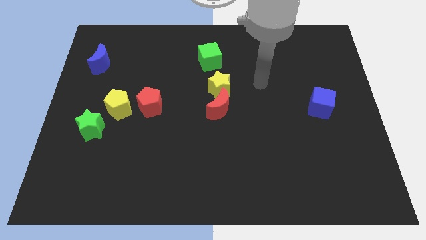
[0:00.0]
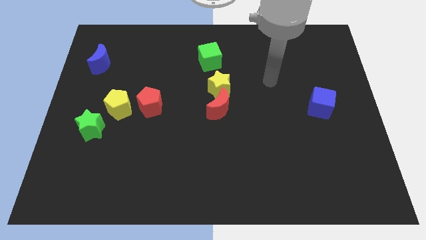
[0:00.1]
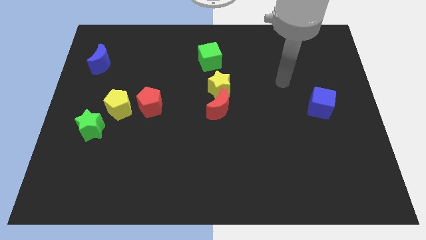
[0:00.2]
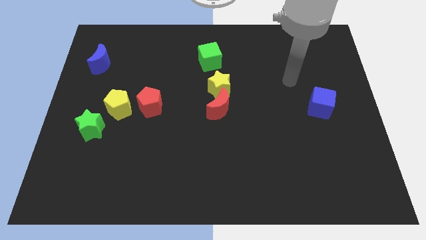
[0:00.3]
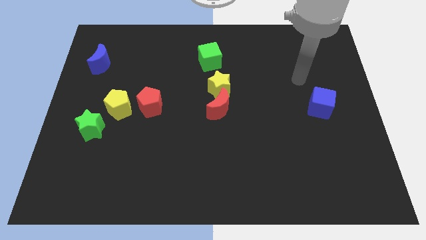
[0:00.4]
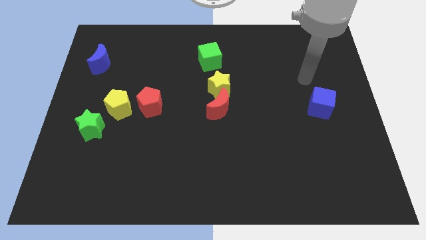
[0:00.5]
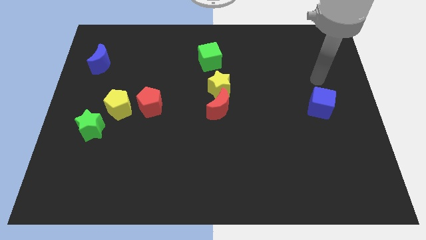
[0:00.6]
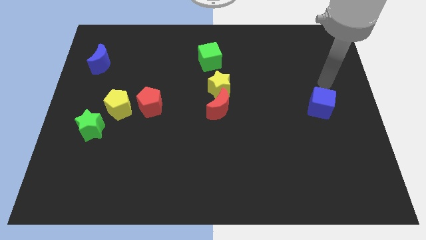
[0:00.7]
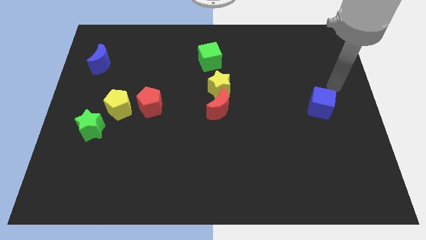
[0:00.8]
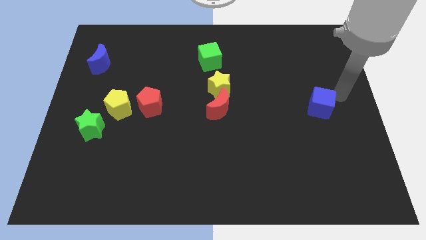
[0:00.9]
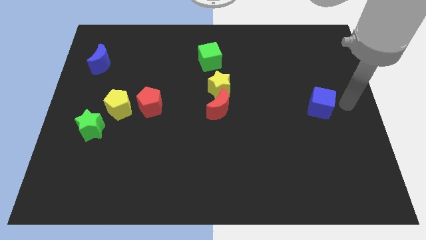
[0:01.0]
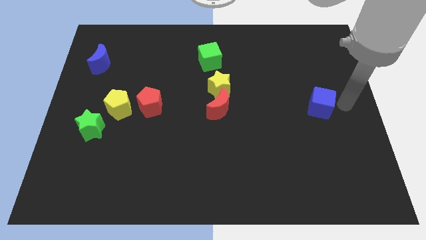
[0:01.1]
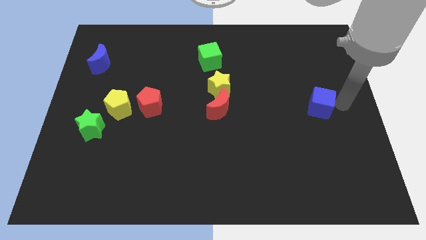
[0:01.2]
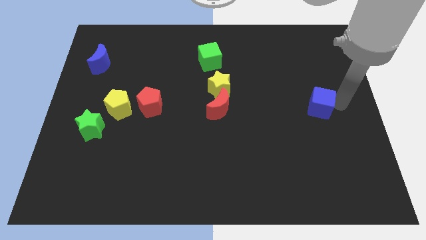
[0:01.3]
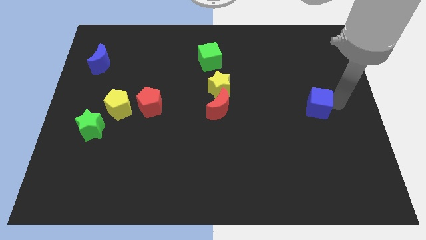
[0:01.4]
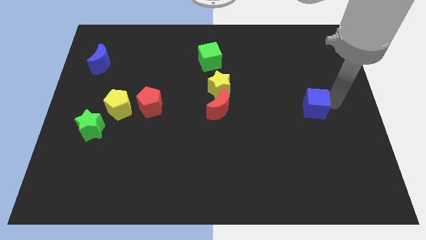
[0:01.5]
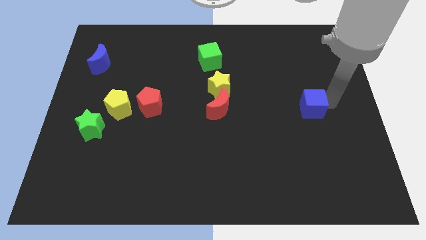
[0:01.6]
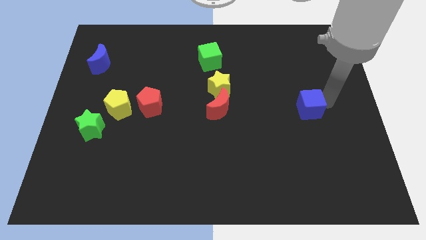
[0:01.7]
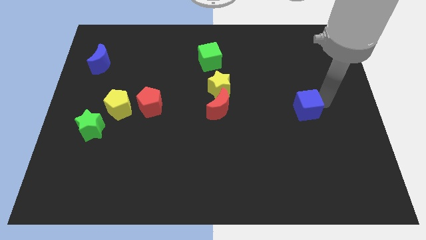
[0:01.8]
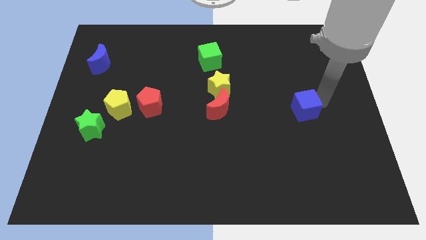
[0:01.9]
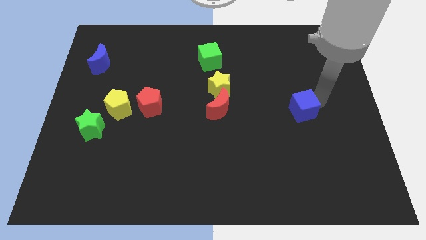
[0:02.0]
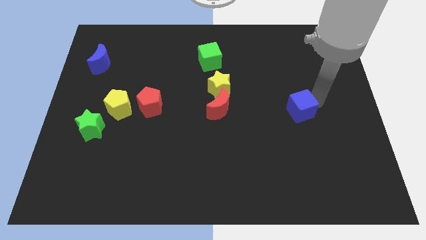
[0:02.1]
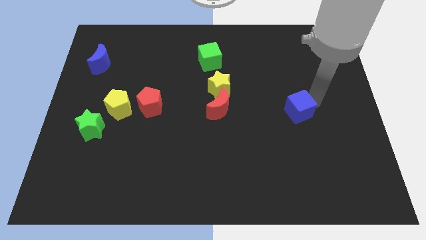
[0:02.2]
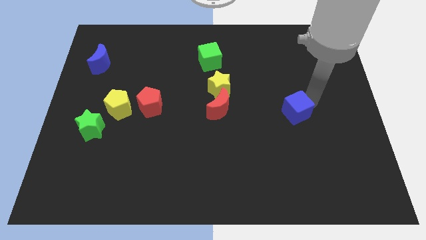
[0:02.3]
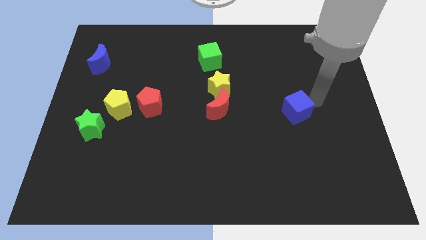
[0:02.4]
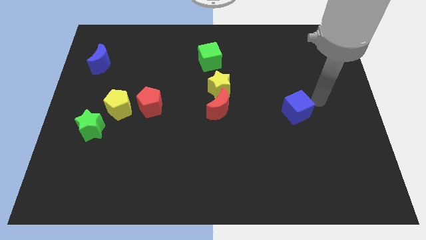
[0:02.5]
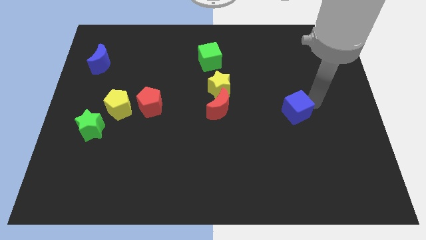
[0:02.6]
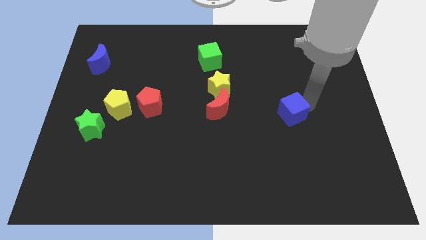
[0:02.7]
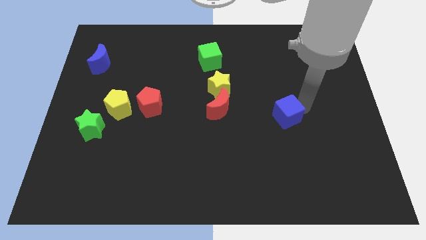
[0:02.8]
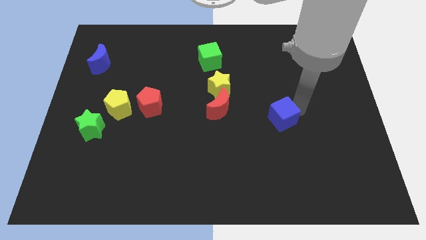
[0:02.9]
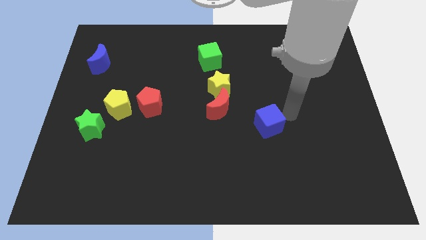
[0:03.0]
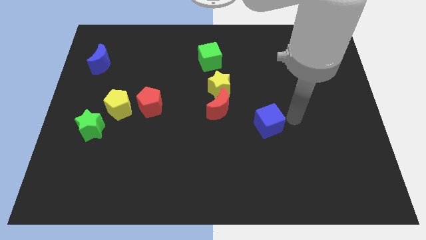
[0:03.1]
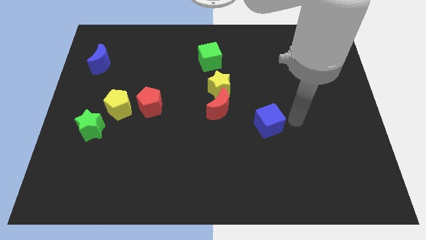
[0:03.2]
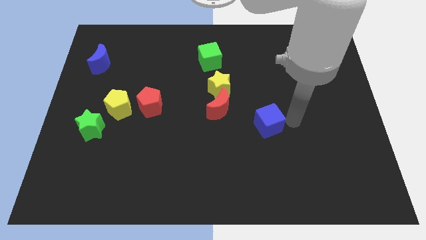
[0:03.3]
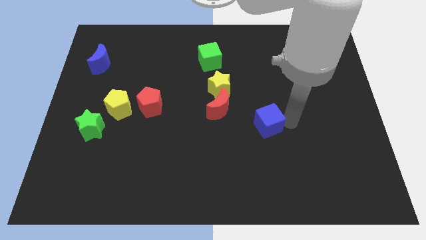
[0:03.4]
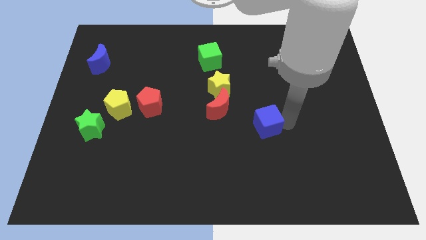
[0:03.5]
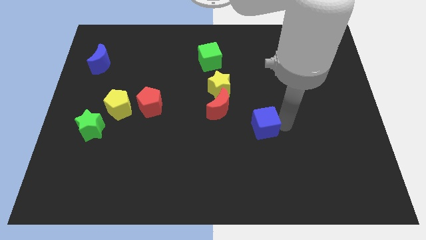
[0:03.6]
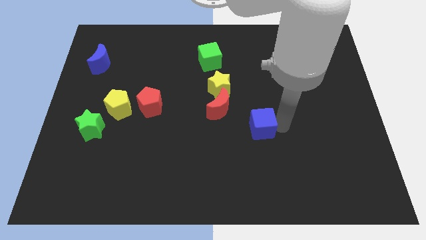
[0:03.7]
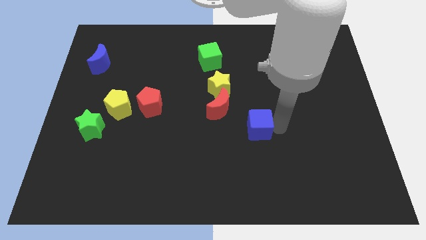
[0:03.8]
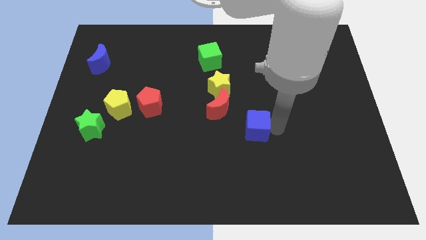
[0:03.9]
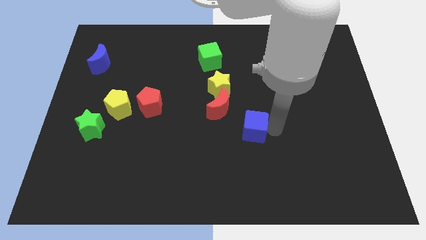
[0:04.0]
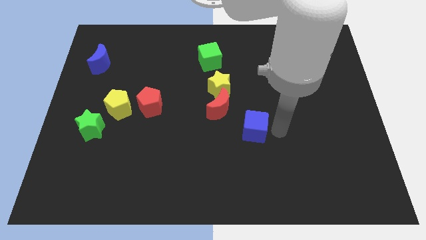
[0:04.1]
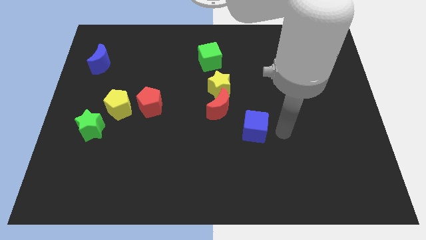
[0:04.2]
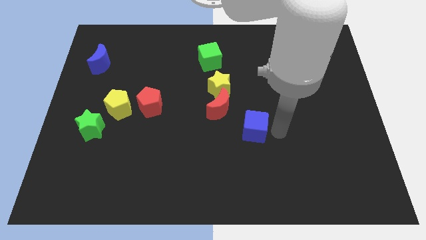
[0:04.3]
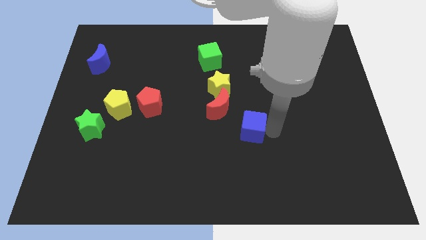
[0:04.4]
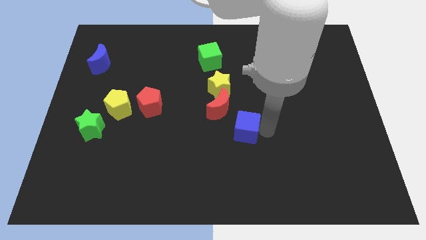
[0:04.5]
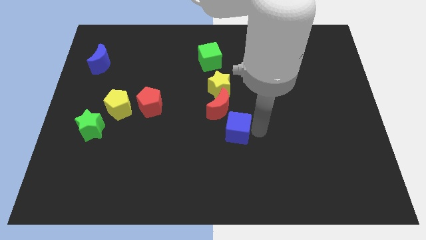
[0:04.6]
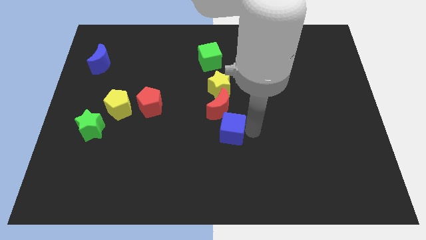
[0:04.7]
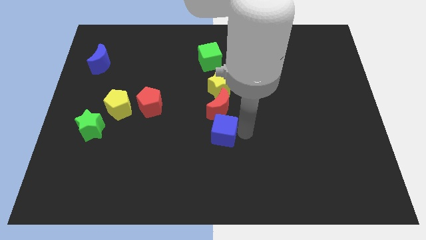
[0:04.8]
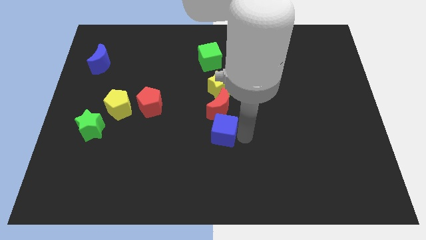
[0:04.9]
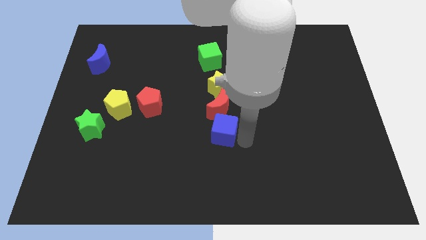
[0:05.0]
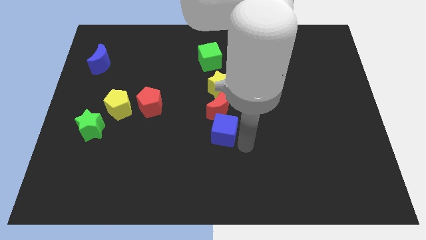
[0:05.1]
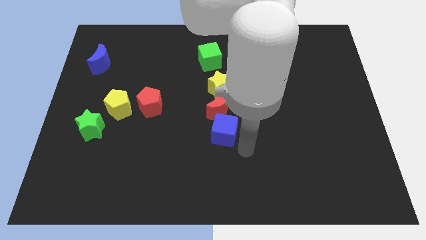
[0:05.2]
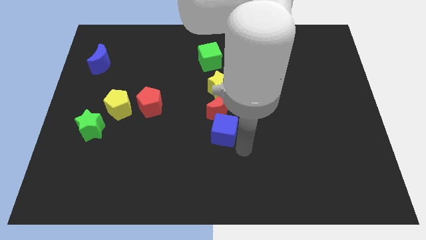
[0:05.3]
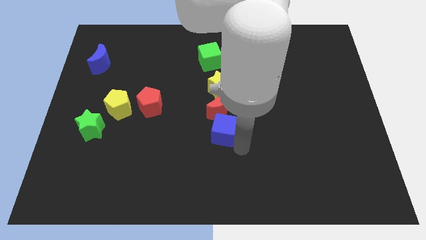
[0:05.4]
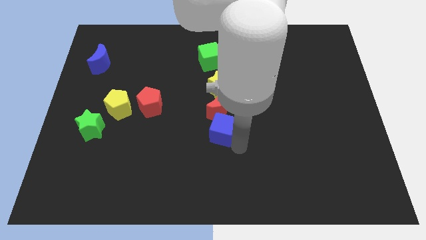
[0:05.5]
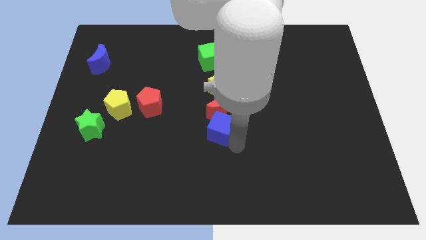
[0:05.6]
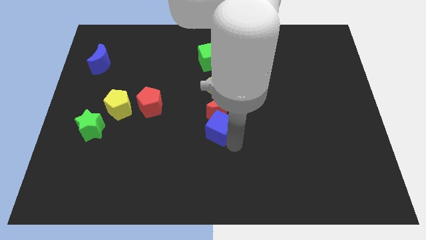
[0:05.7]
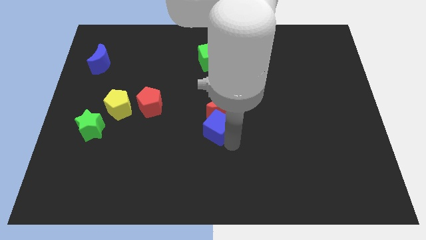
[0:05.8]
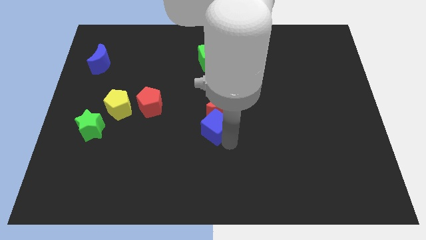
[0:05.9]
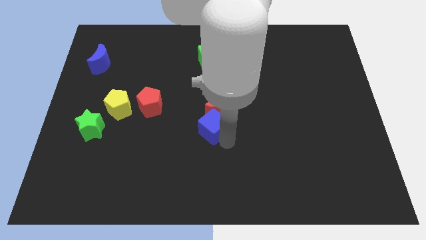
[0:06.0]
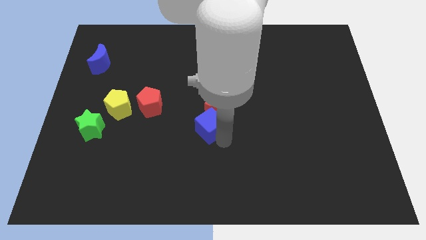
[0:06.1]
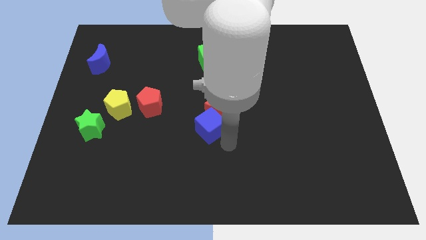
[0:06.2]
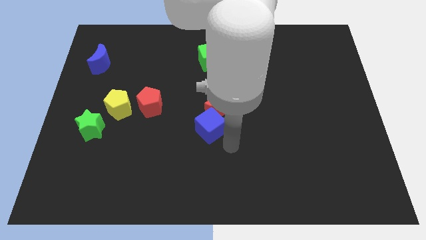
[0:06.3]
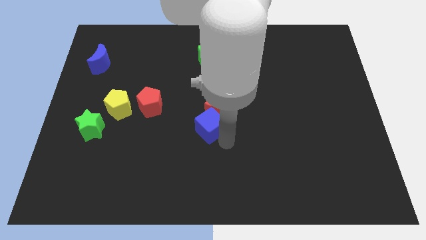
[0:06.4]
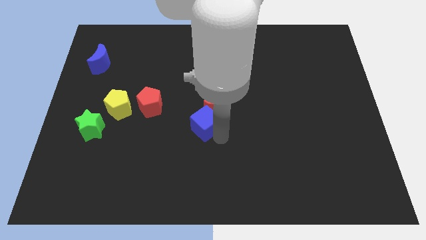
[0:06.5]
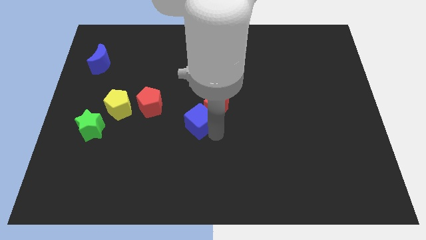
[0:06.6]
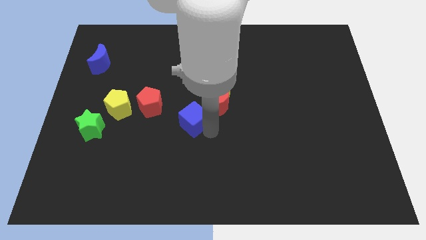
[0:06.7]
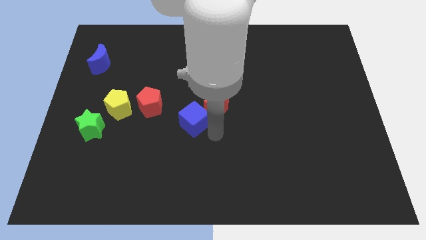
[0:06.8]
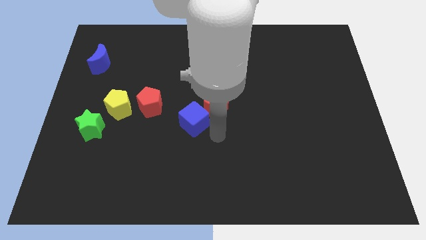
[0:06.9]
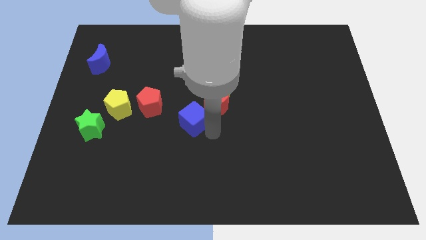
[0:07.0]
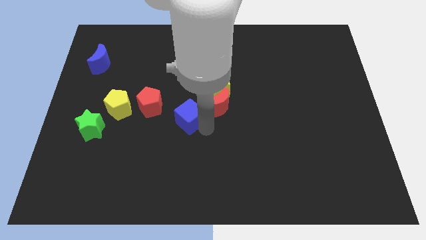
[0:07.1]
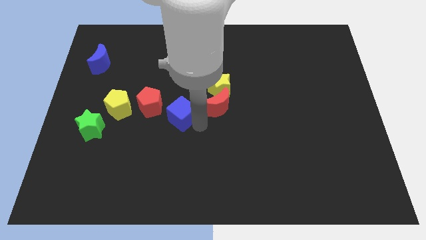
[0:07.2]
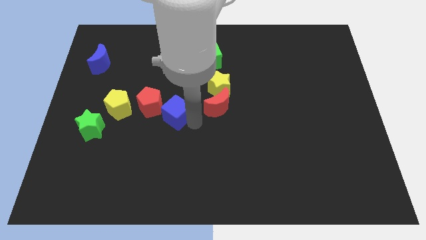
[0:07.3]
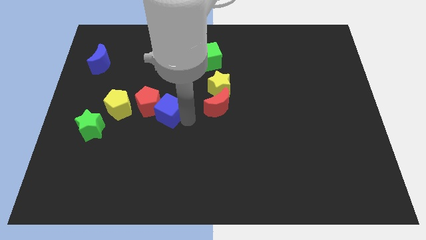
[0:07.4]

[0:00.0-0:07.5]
slide the blue cube close to the red pentagon

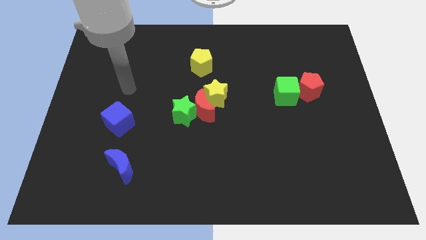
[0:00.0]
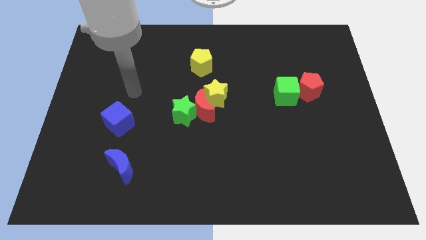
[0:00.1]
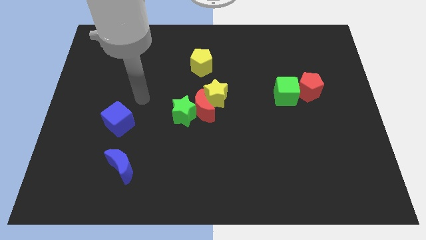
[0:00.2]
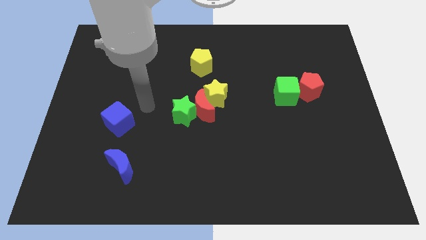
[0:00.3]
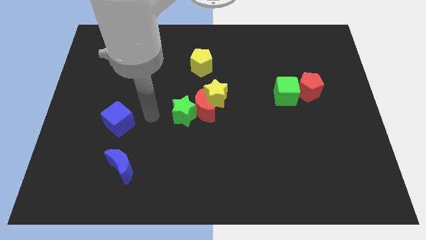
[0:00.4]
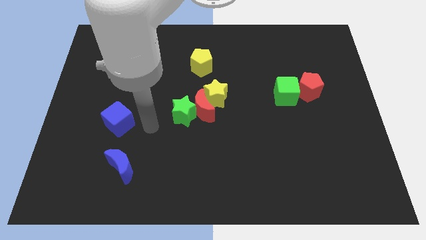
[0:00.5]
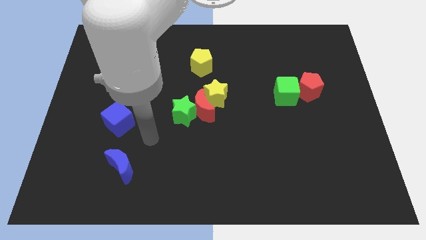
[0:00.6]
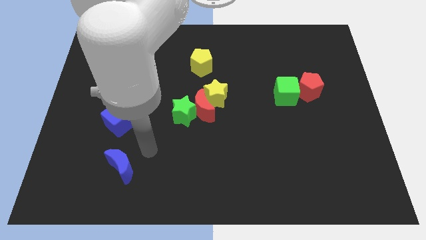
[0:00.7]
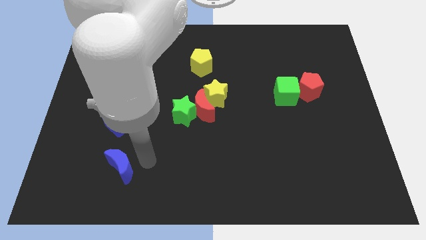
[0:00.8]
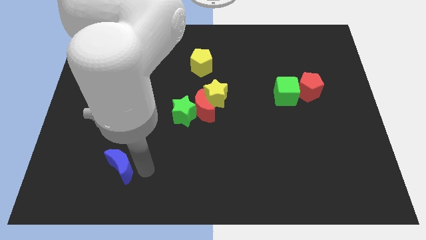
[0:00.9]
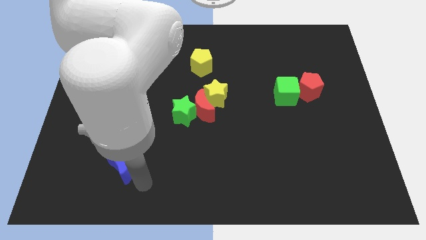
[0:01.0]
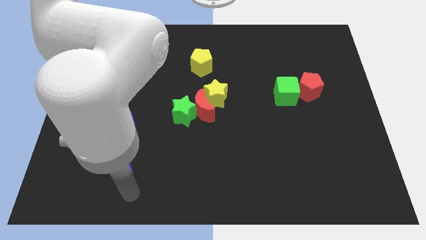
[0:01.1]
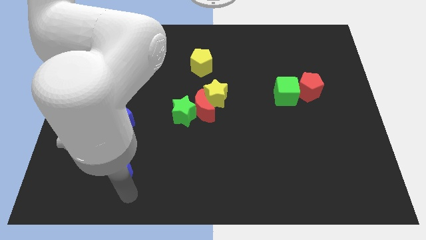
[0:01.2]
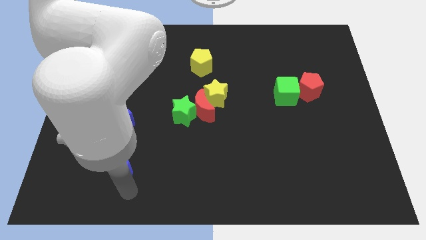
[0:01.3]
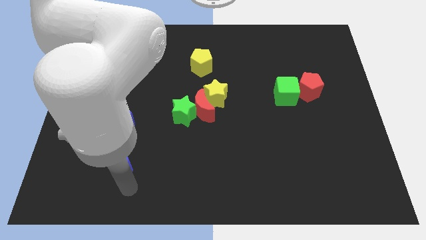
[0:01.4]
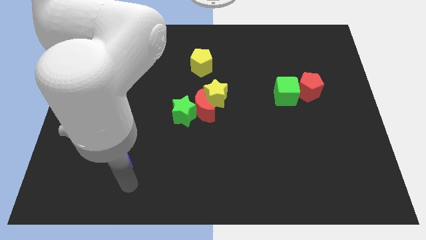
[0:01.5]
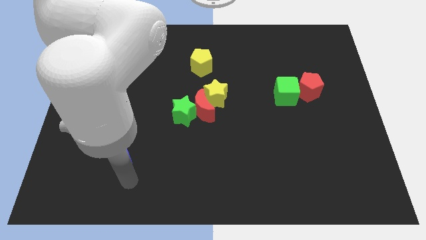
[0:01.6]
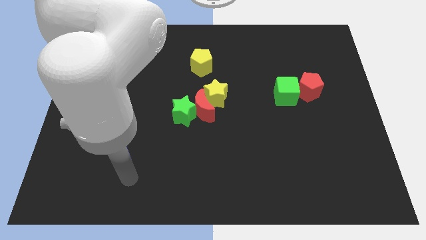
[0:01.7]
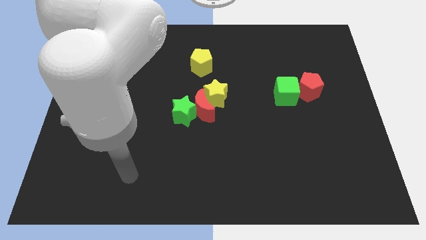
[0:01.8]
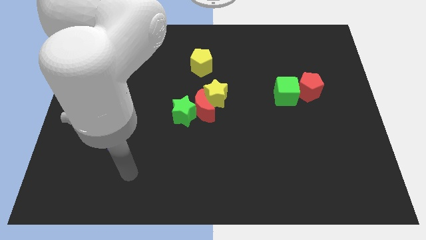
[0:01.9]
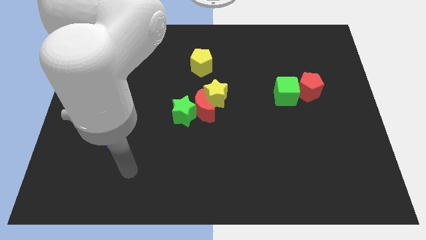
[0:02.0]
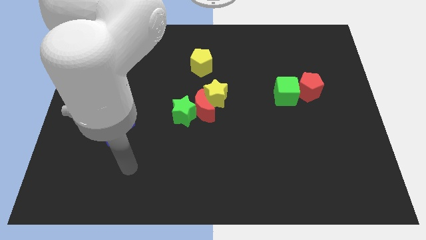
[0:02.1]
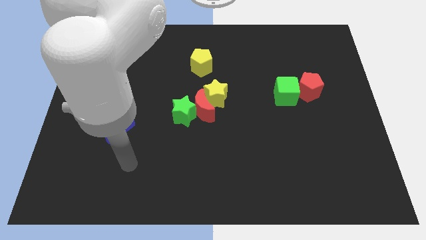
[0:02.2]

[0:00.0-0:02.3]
put the blue moon to the blue cube
